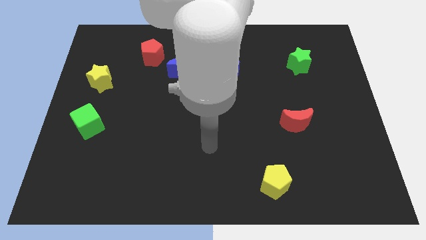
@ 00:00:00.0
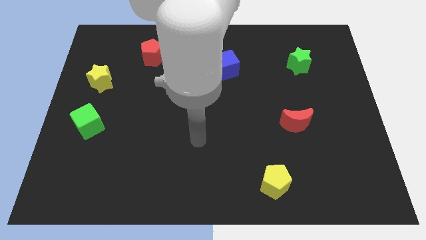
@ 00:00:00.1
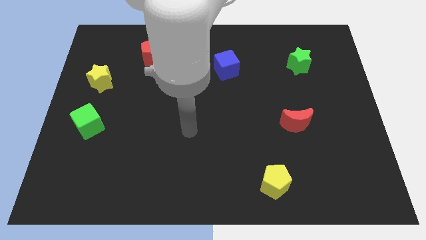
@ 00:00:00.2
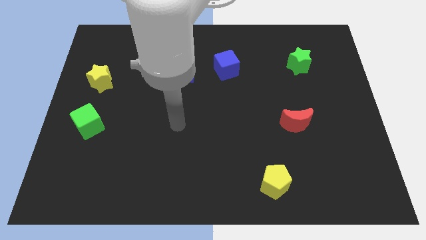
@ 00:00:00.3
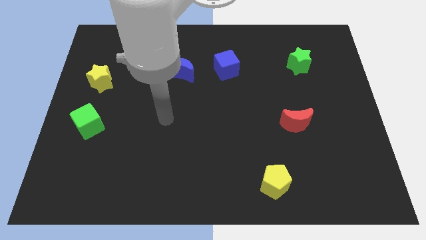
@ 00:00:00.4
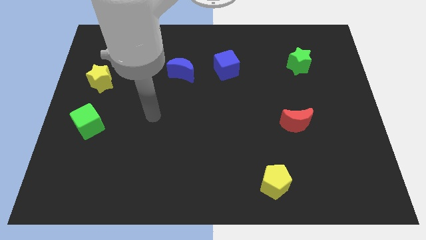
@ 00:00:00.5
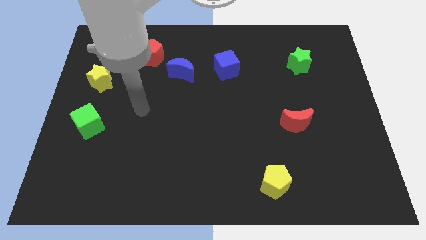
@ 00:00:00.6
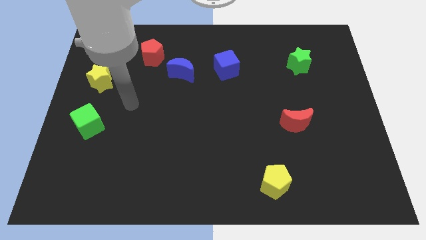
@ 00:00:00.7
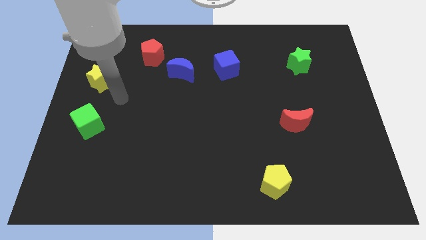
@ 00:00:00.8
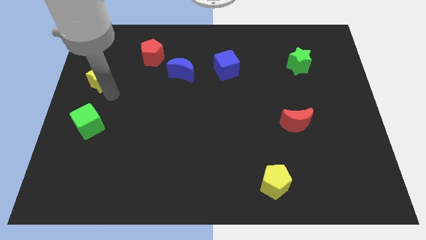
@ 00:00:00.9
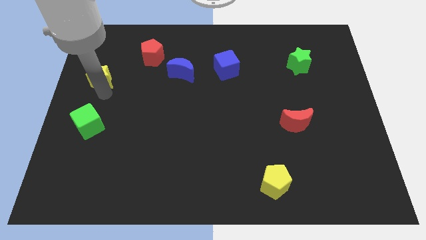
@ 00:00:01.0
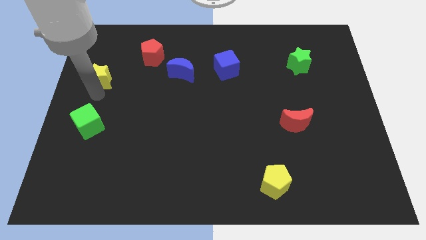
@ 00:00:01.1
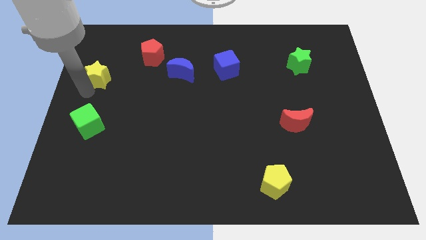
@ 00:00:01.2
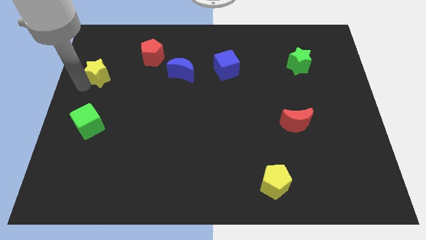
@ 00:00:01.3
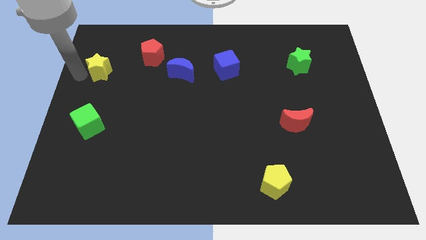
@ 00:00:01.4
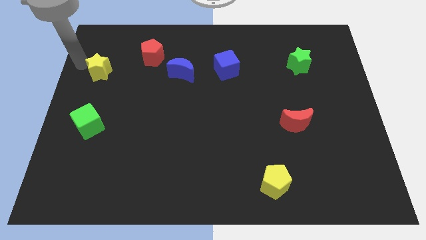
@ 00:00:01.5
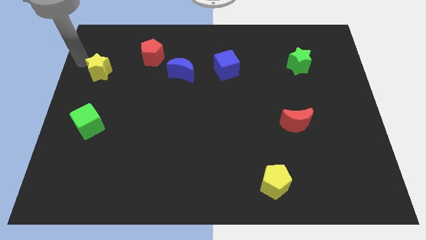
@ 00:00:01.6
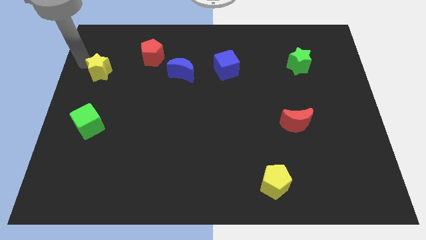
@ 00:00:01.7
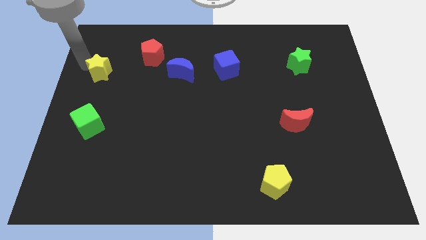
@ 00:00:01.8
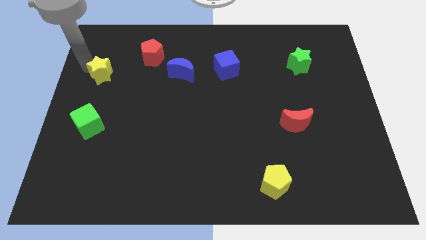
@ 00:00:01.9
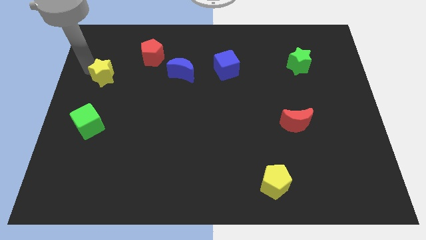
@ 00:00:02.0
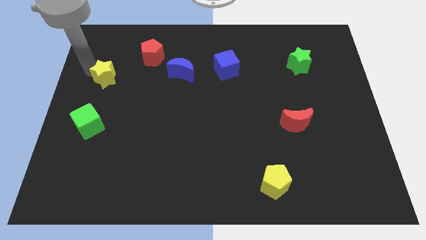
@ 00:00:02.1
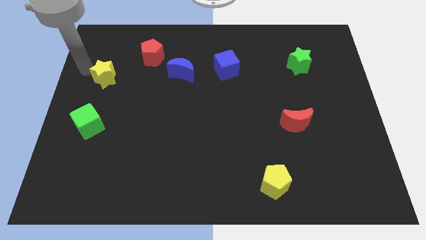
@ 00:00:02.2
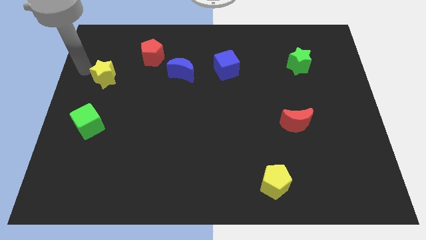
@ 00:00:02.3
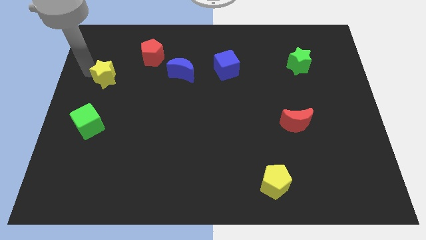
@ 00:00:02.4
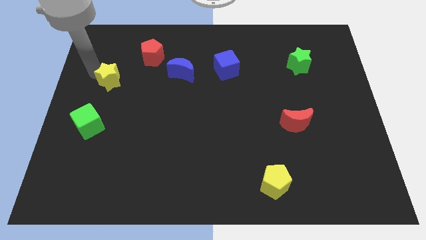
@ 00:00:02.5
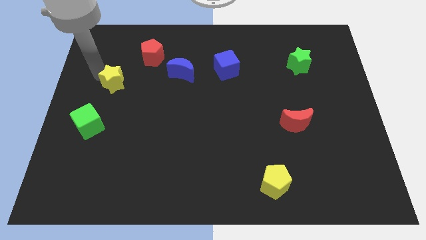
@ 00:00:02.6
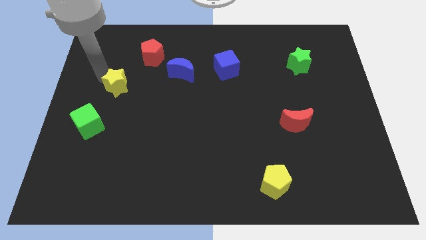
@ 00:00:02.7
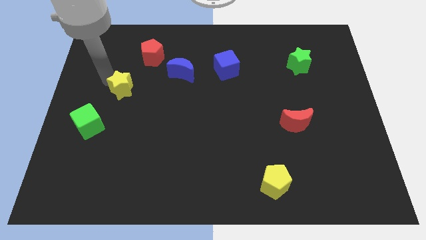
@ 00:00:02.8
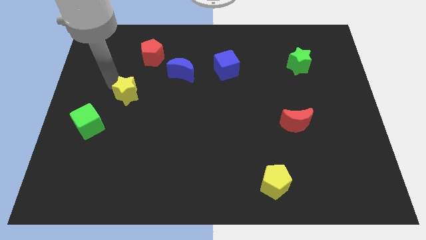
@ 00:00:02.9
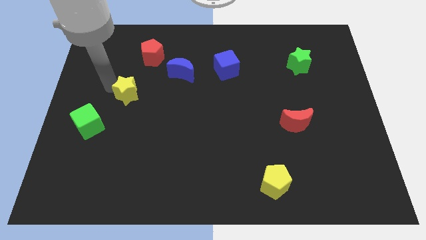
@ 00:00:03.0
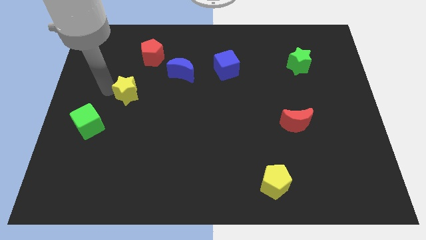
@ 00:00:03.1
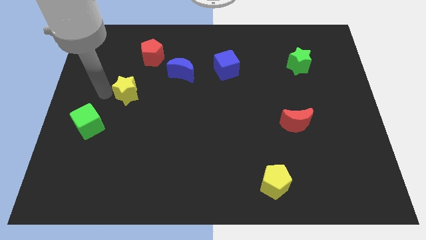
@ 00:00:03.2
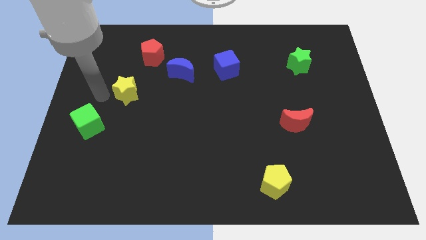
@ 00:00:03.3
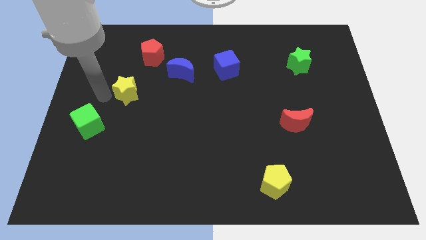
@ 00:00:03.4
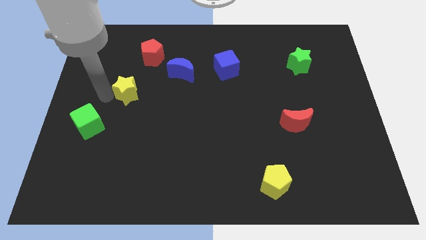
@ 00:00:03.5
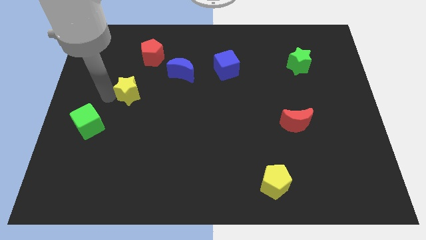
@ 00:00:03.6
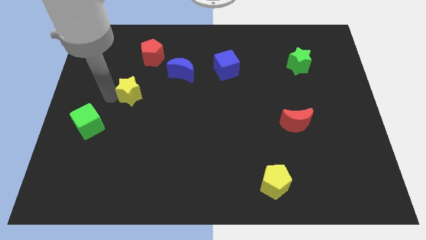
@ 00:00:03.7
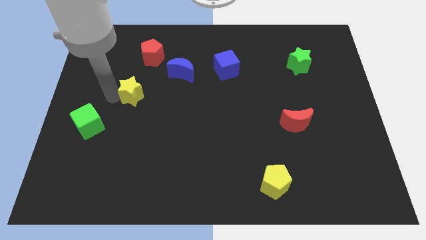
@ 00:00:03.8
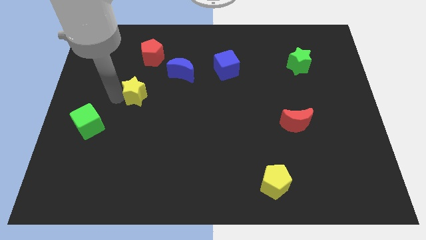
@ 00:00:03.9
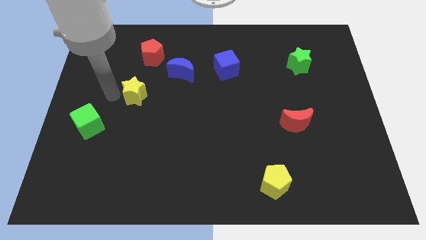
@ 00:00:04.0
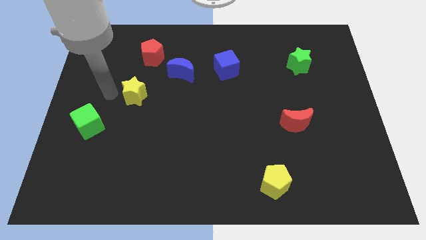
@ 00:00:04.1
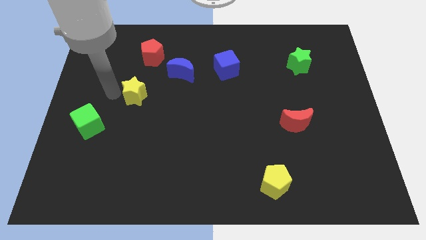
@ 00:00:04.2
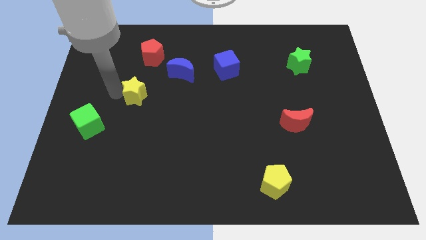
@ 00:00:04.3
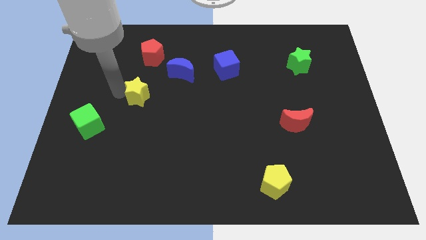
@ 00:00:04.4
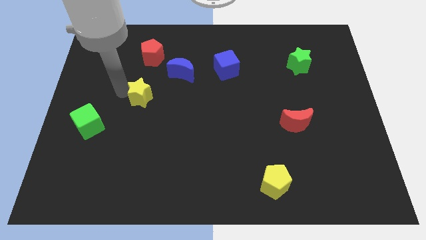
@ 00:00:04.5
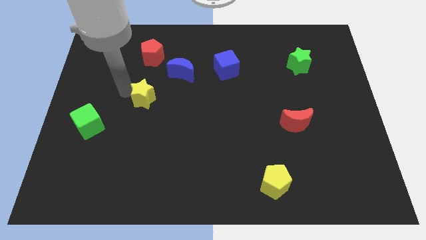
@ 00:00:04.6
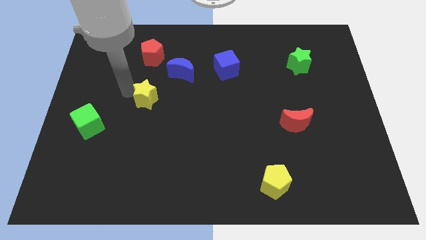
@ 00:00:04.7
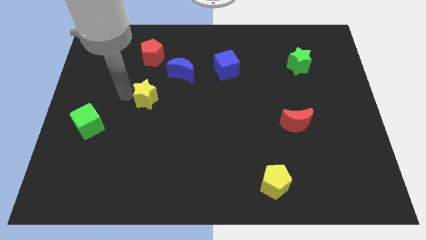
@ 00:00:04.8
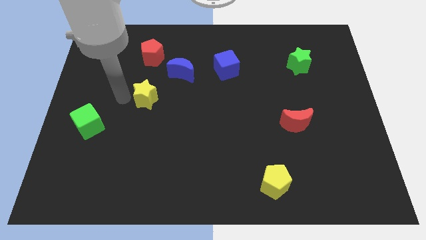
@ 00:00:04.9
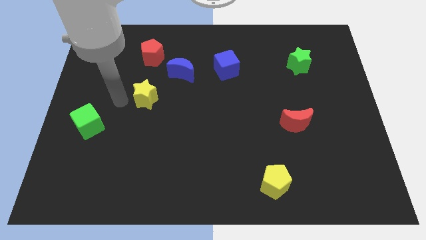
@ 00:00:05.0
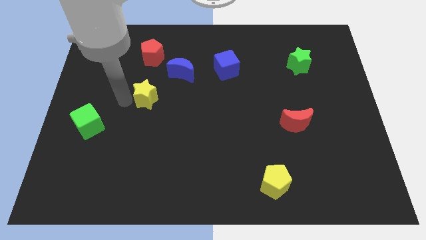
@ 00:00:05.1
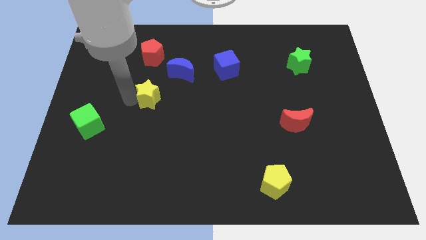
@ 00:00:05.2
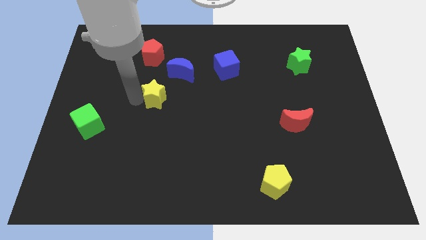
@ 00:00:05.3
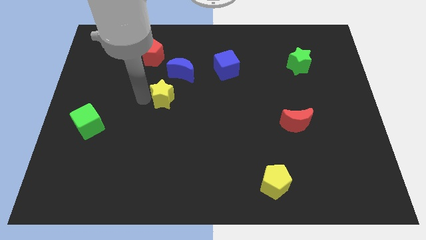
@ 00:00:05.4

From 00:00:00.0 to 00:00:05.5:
slide the yellow star to the middle of the board

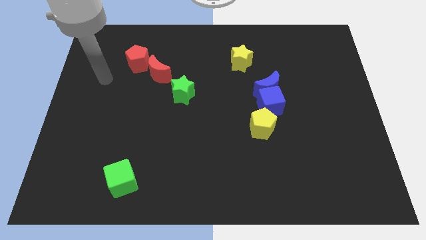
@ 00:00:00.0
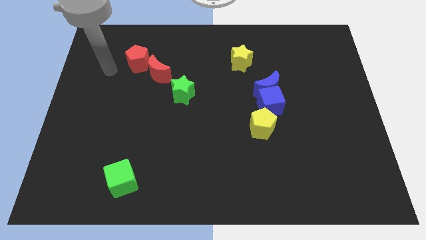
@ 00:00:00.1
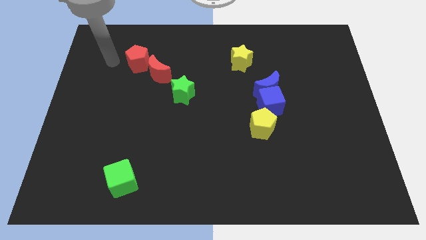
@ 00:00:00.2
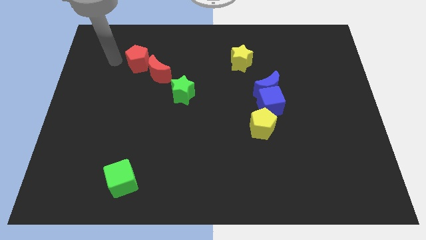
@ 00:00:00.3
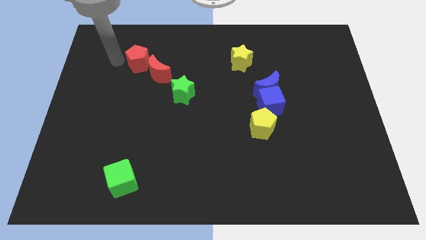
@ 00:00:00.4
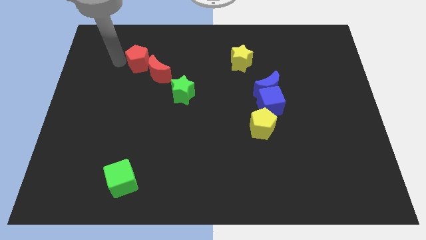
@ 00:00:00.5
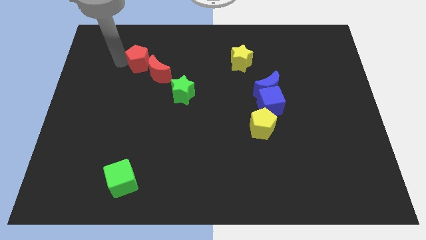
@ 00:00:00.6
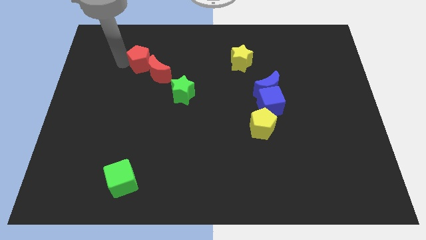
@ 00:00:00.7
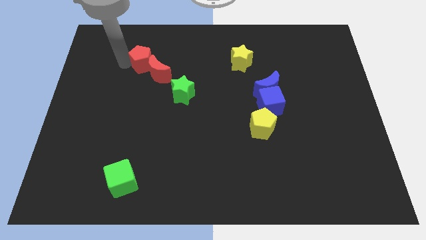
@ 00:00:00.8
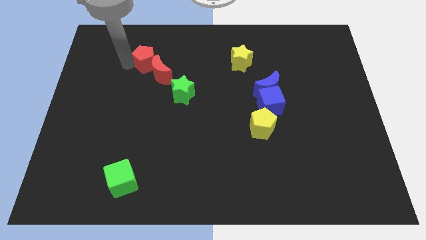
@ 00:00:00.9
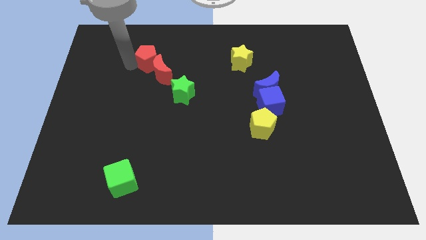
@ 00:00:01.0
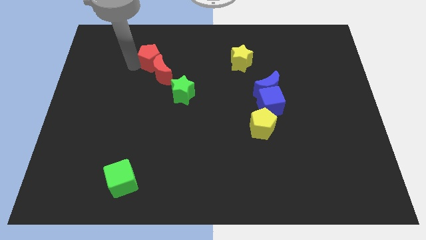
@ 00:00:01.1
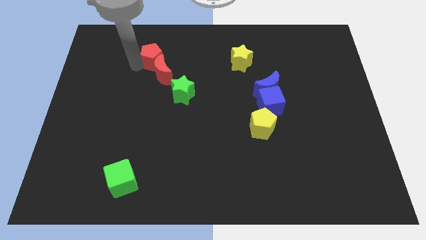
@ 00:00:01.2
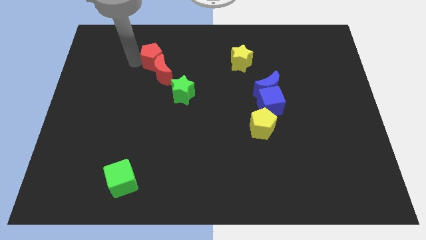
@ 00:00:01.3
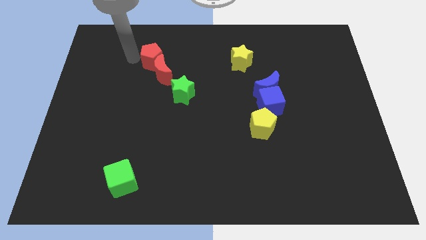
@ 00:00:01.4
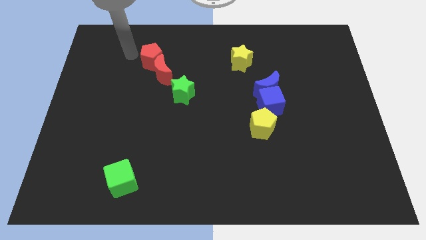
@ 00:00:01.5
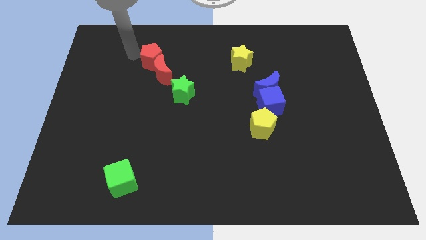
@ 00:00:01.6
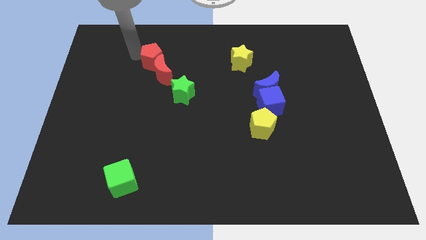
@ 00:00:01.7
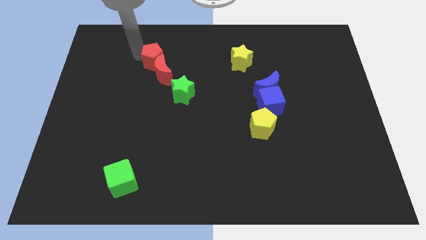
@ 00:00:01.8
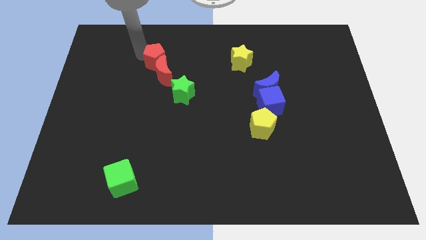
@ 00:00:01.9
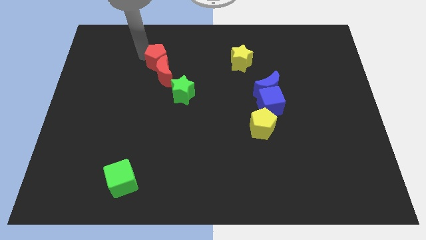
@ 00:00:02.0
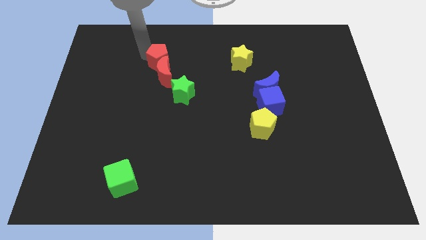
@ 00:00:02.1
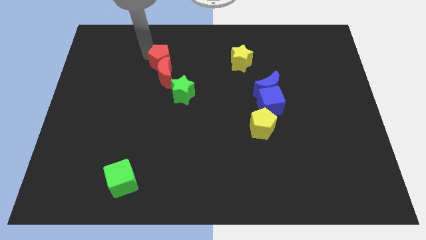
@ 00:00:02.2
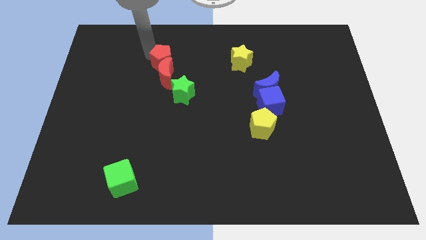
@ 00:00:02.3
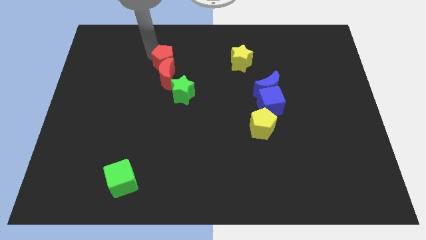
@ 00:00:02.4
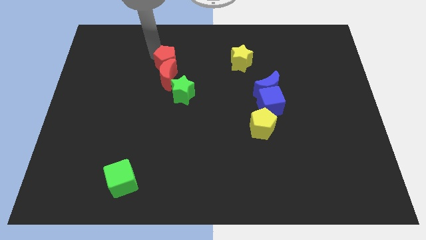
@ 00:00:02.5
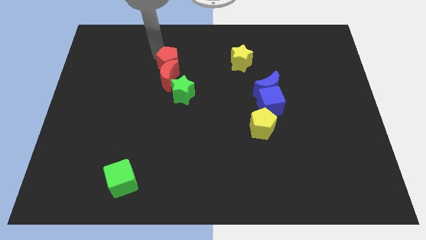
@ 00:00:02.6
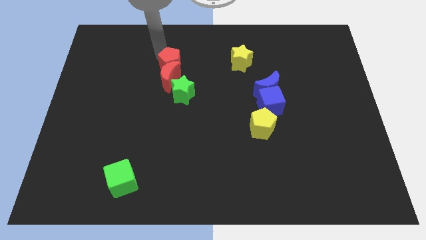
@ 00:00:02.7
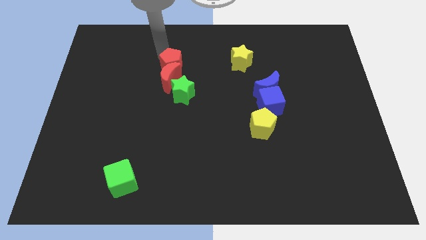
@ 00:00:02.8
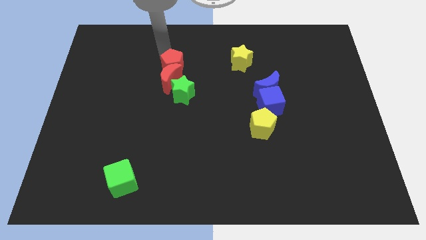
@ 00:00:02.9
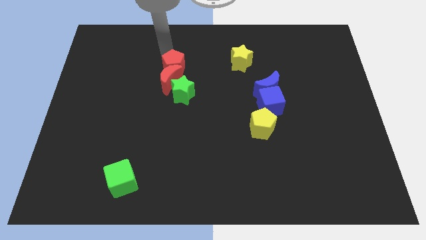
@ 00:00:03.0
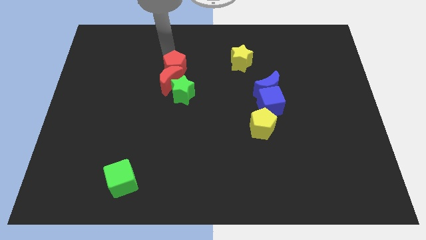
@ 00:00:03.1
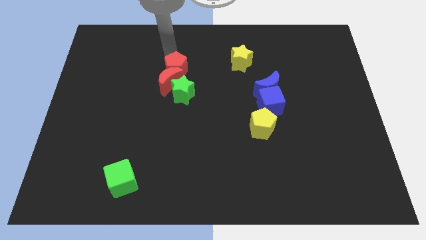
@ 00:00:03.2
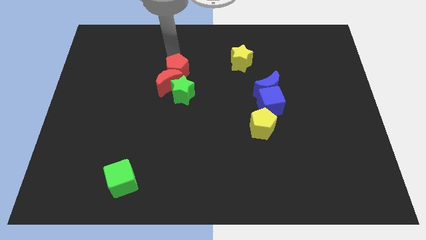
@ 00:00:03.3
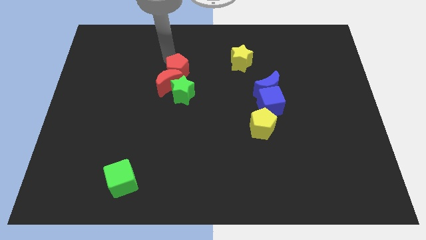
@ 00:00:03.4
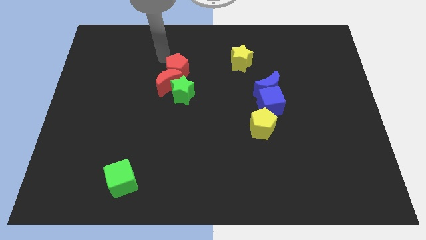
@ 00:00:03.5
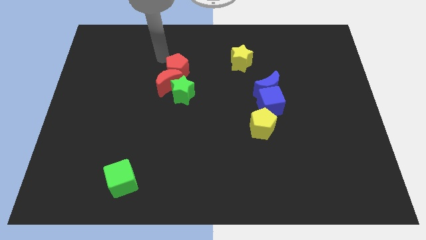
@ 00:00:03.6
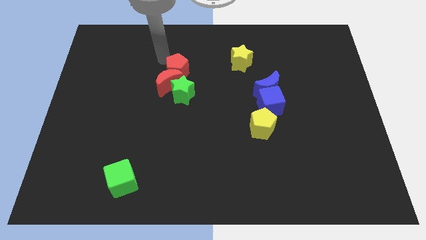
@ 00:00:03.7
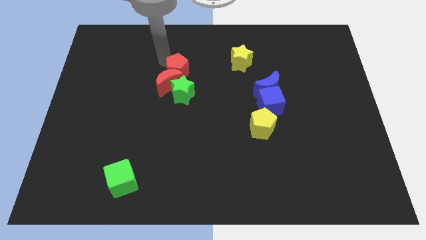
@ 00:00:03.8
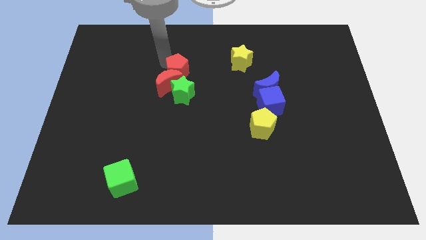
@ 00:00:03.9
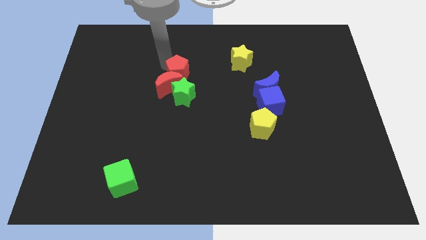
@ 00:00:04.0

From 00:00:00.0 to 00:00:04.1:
move the red pentagon to the center
